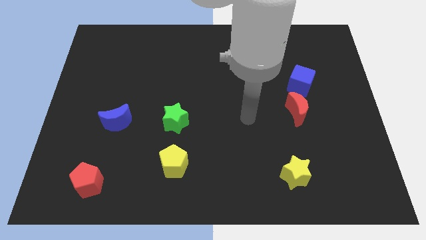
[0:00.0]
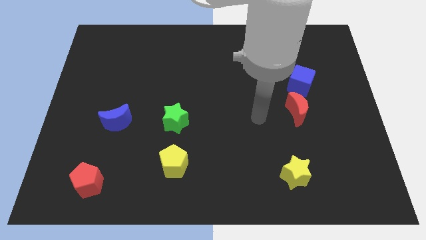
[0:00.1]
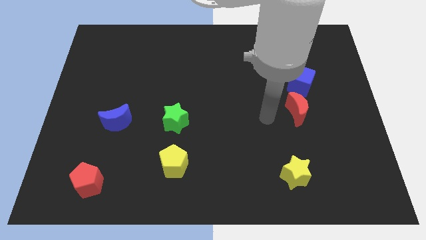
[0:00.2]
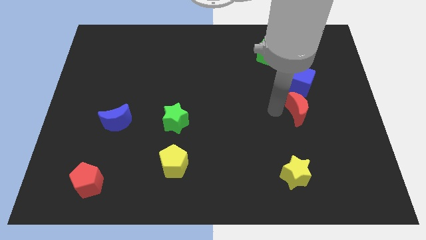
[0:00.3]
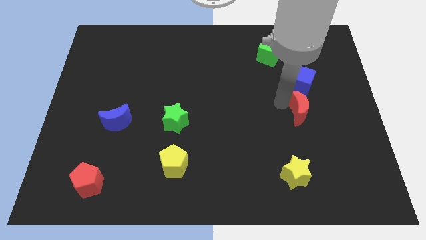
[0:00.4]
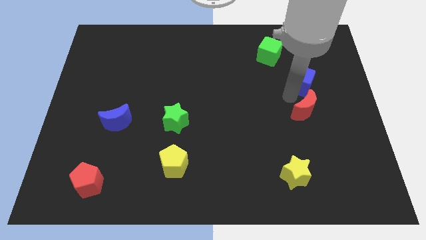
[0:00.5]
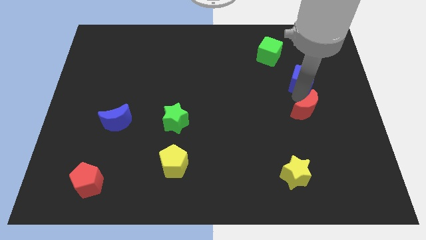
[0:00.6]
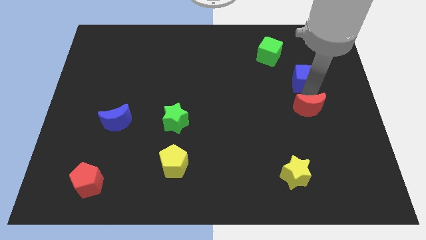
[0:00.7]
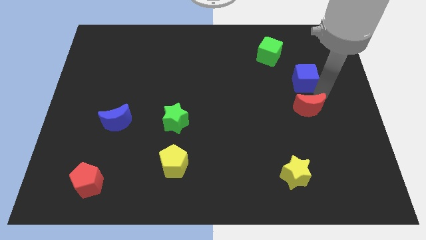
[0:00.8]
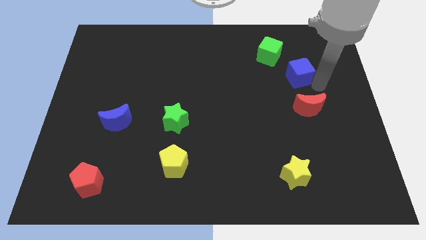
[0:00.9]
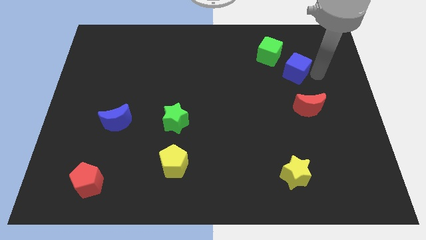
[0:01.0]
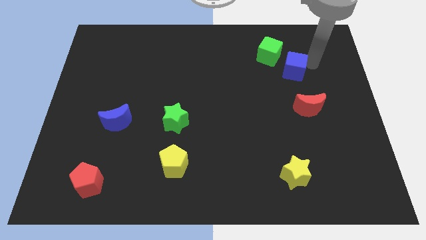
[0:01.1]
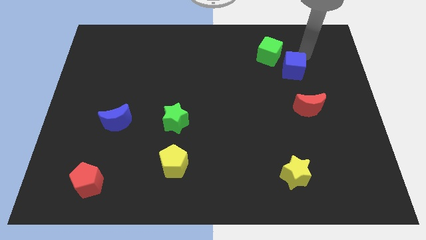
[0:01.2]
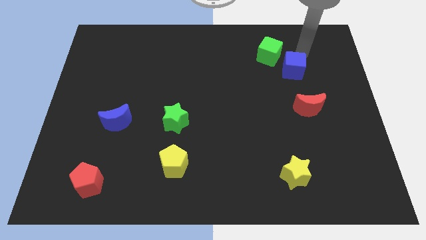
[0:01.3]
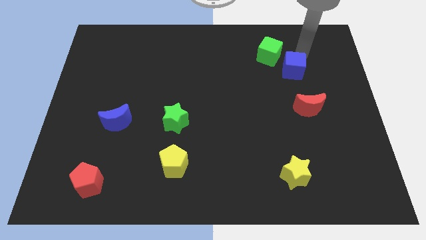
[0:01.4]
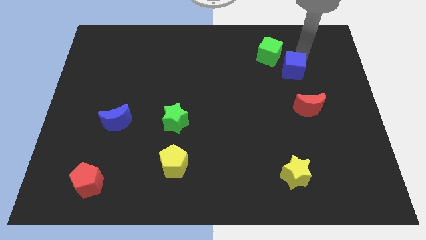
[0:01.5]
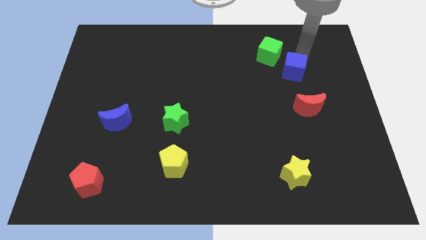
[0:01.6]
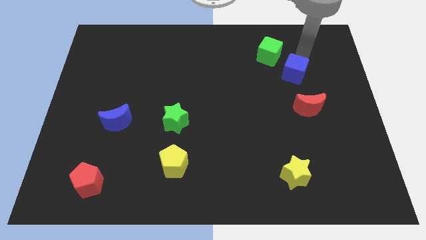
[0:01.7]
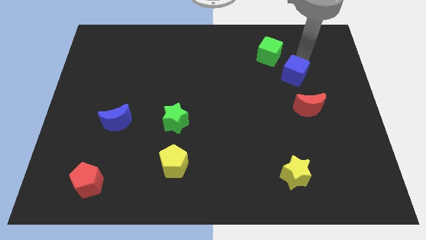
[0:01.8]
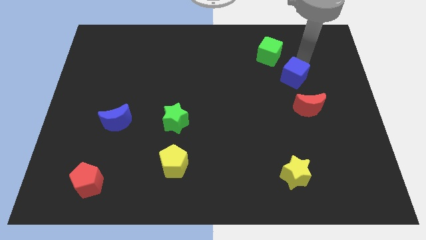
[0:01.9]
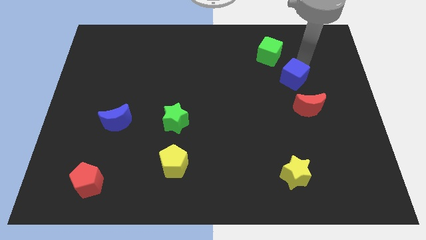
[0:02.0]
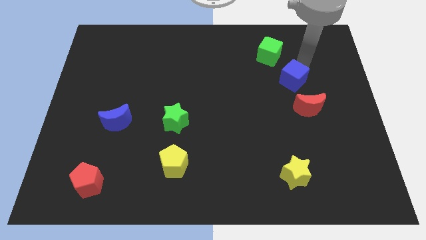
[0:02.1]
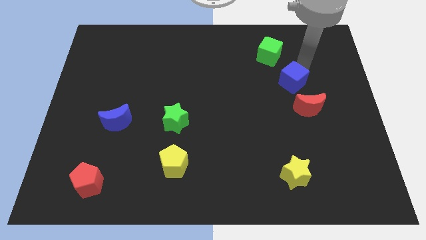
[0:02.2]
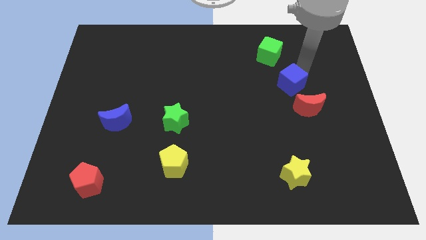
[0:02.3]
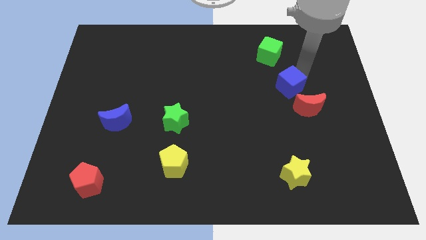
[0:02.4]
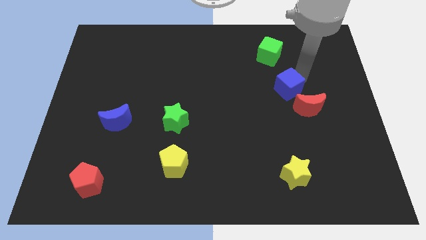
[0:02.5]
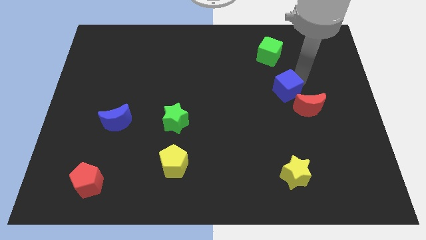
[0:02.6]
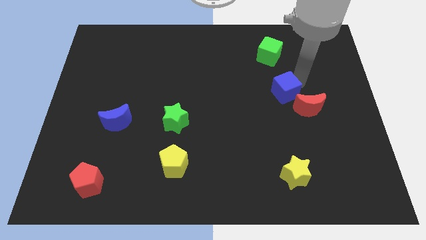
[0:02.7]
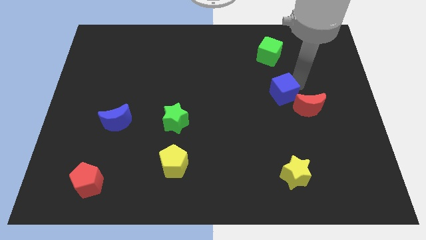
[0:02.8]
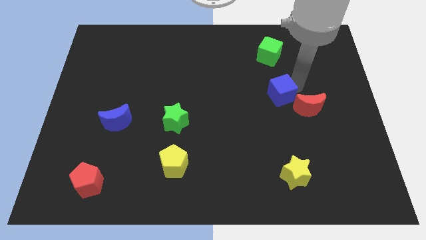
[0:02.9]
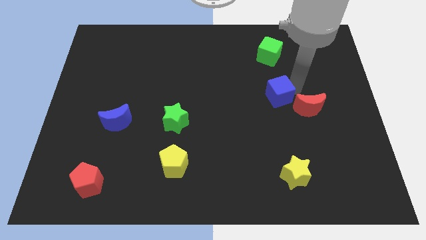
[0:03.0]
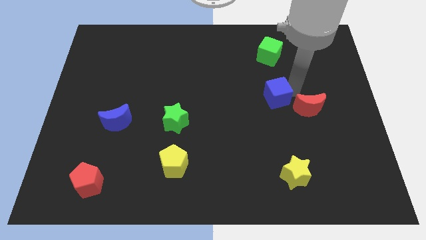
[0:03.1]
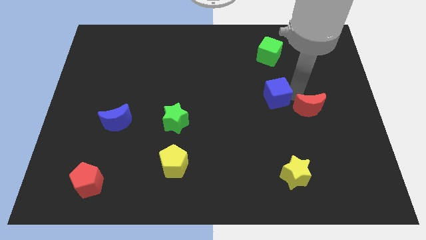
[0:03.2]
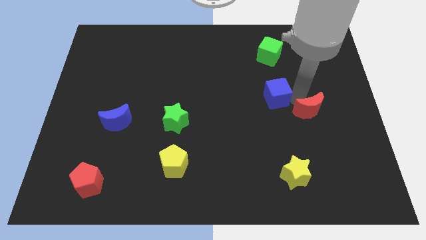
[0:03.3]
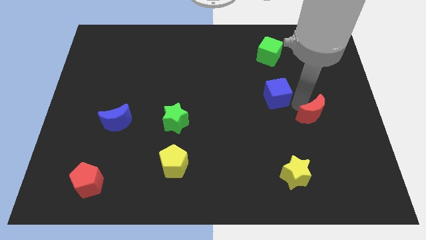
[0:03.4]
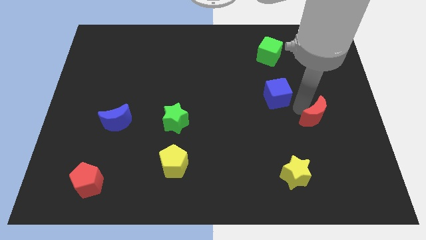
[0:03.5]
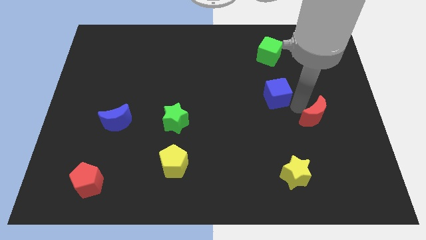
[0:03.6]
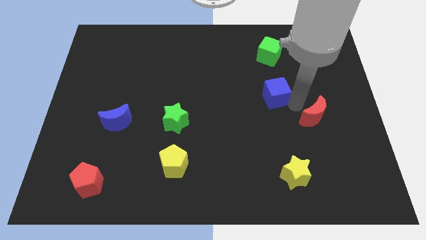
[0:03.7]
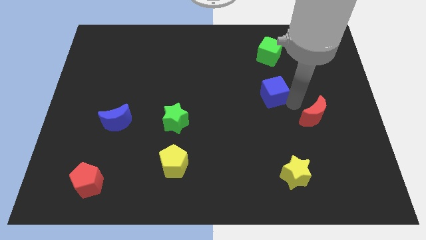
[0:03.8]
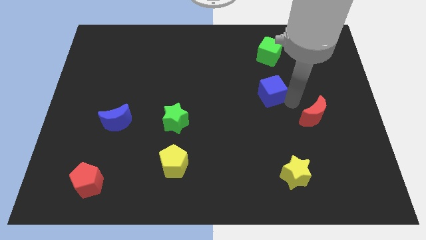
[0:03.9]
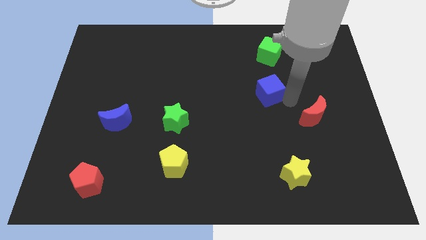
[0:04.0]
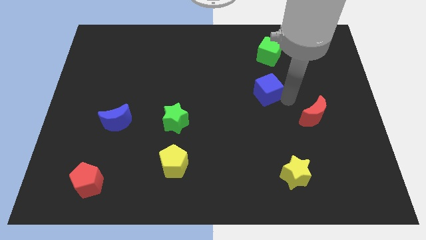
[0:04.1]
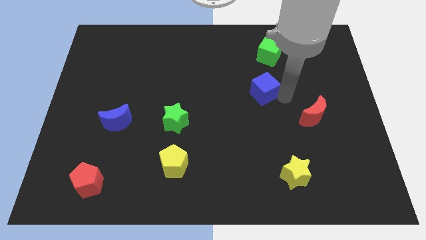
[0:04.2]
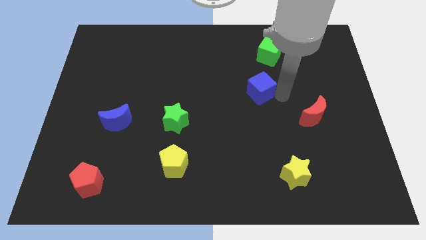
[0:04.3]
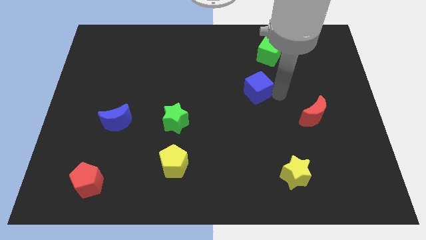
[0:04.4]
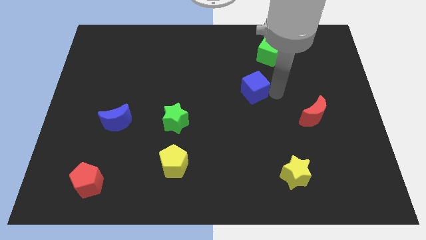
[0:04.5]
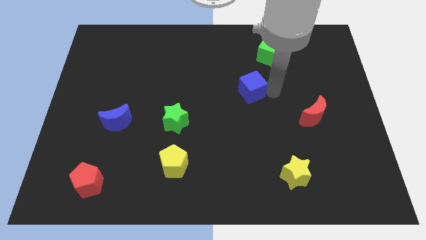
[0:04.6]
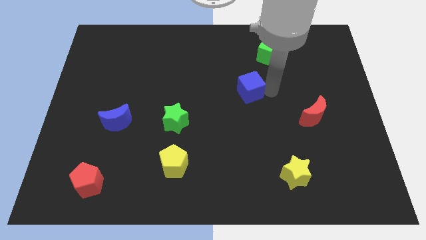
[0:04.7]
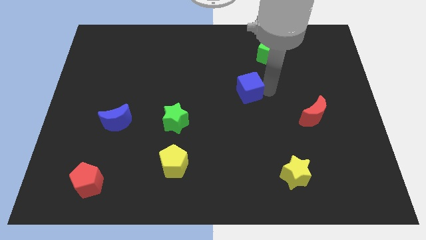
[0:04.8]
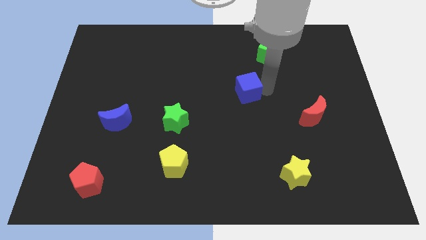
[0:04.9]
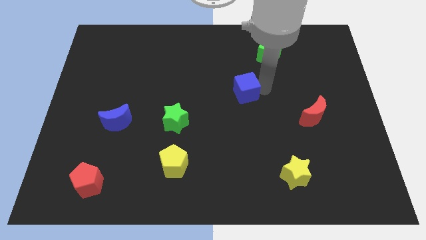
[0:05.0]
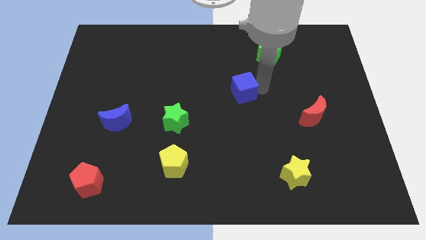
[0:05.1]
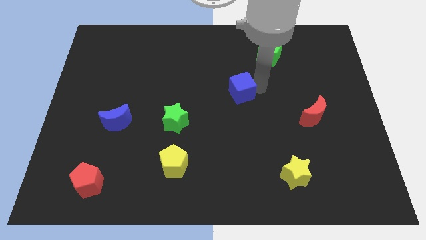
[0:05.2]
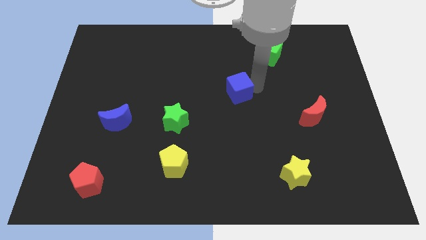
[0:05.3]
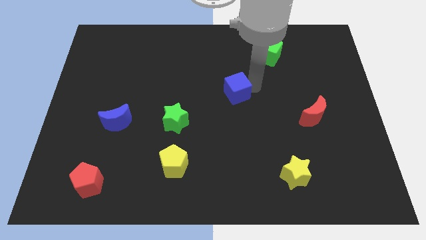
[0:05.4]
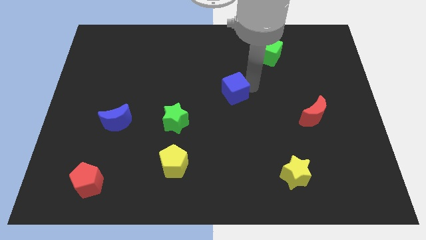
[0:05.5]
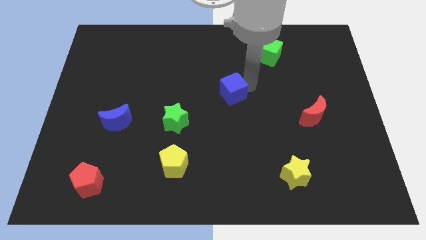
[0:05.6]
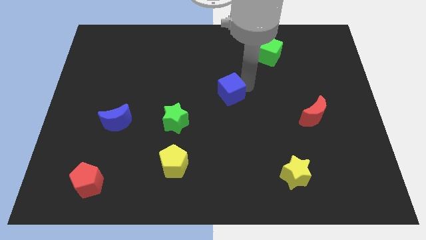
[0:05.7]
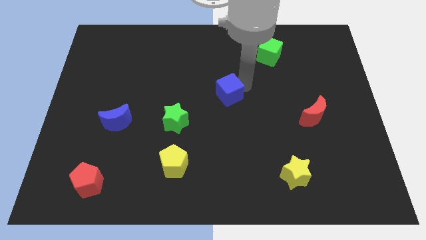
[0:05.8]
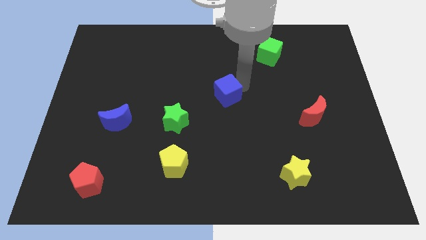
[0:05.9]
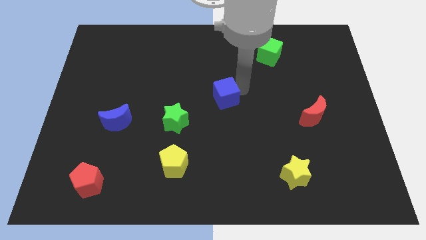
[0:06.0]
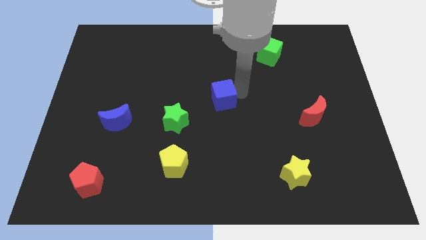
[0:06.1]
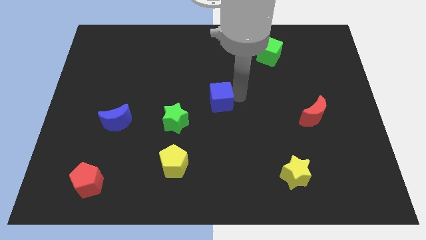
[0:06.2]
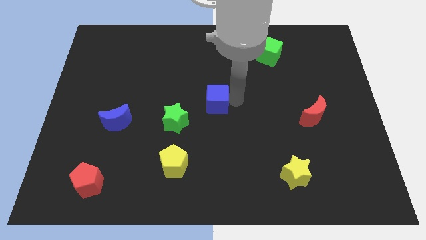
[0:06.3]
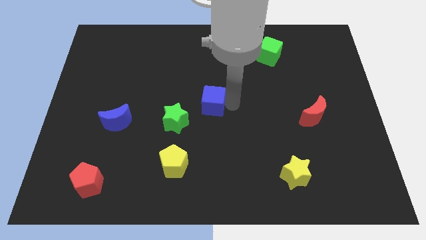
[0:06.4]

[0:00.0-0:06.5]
move the blue cube left

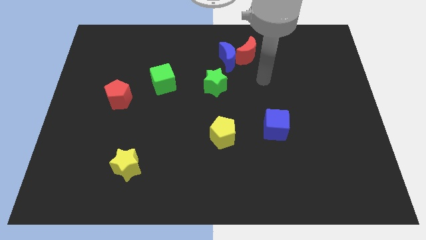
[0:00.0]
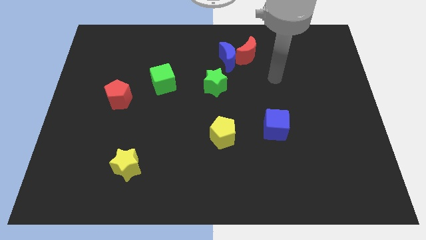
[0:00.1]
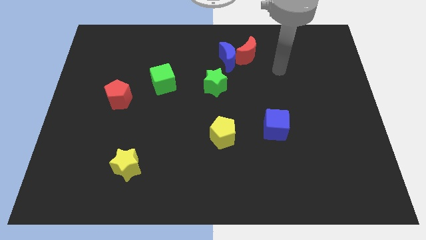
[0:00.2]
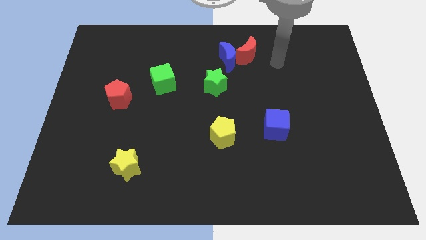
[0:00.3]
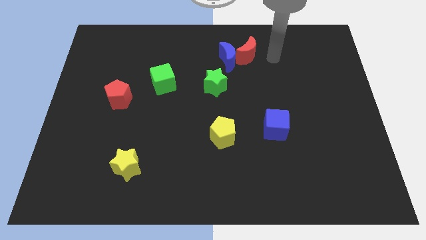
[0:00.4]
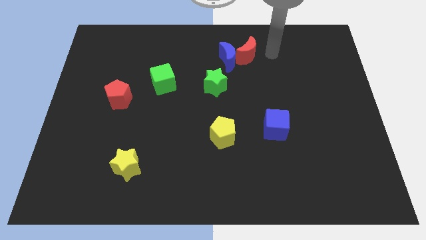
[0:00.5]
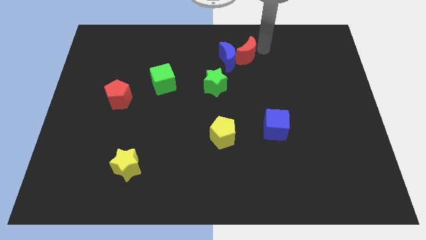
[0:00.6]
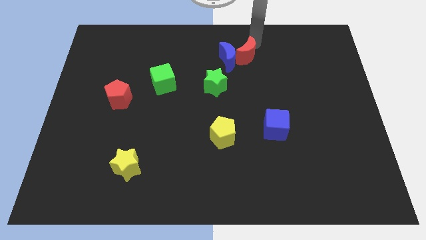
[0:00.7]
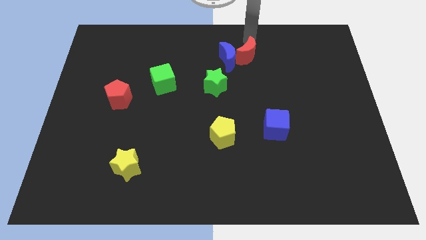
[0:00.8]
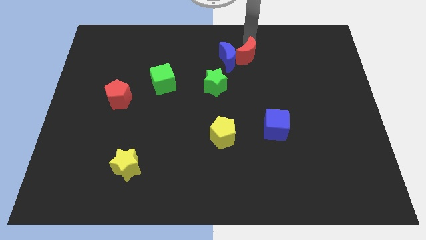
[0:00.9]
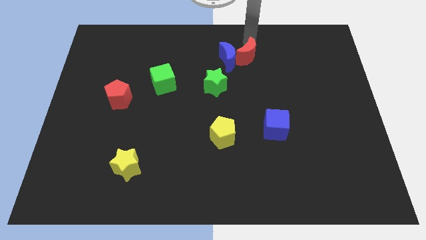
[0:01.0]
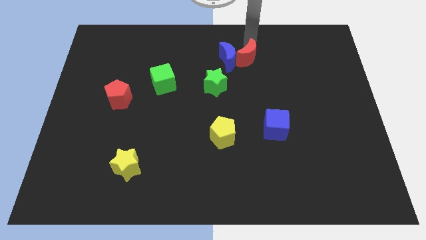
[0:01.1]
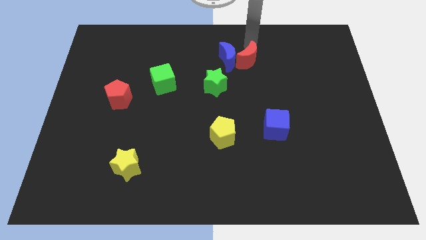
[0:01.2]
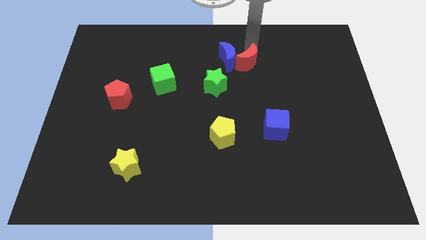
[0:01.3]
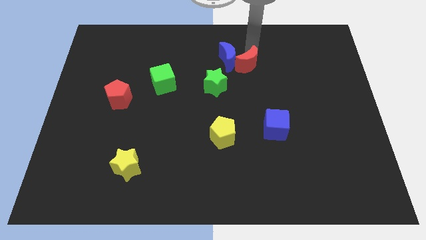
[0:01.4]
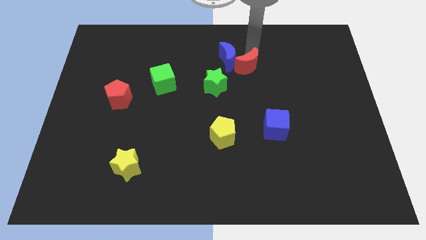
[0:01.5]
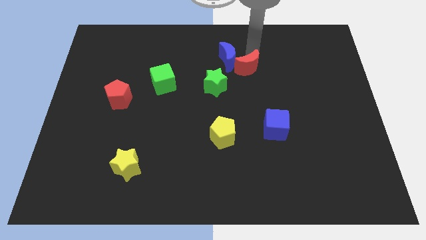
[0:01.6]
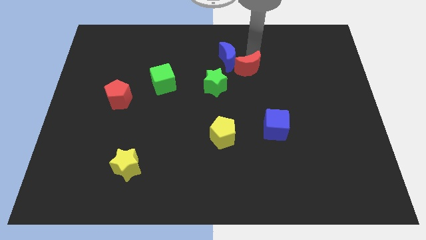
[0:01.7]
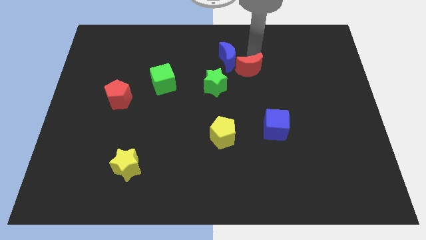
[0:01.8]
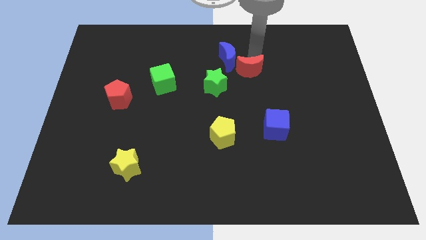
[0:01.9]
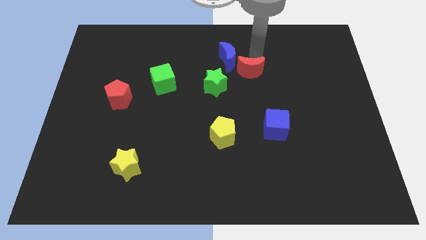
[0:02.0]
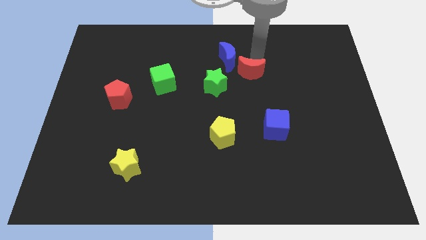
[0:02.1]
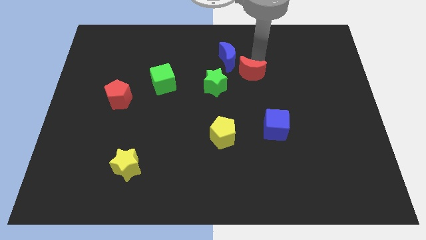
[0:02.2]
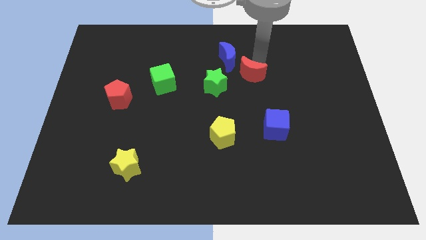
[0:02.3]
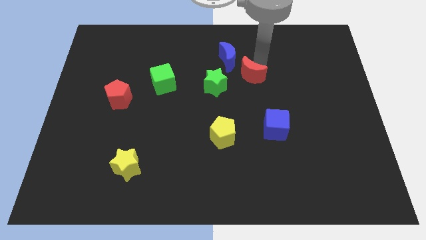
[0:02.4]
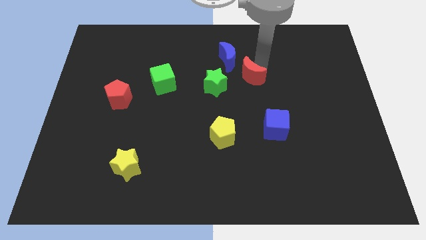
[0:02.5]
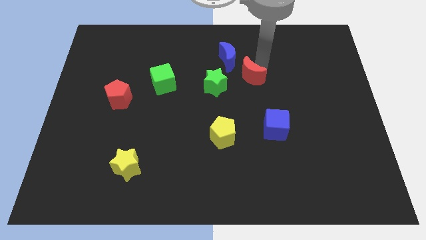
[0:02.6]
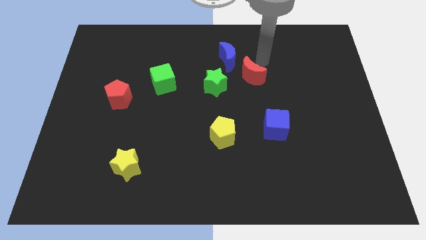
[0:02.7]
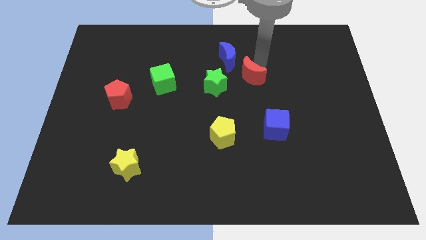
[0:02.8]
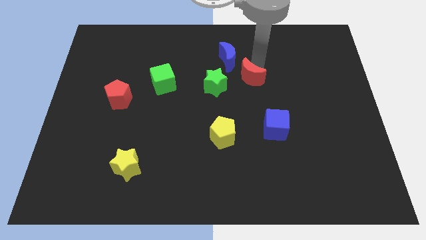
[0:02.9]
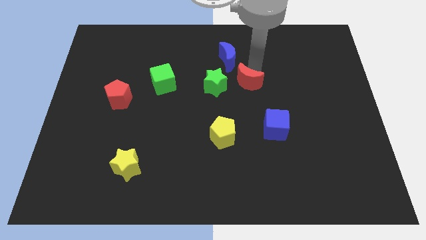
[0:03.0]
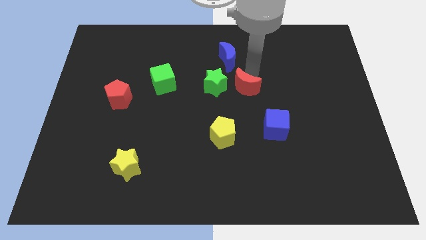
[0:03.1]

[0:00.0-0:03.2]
slightly slide the red moon down and to the left
